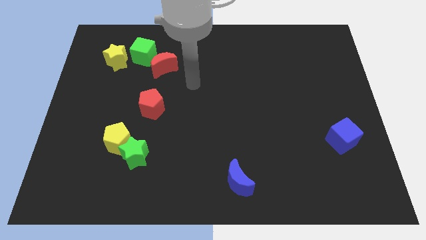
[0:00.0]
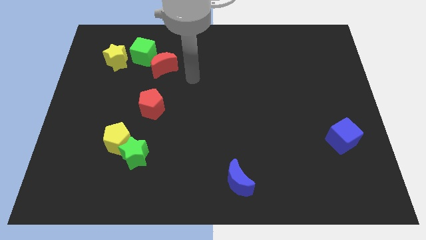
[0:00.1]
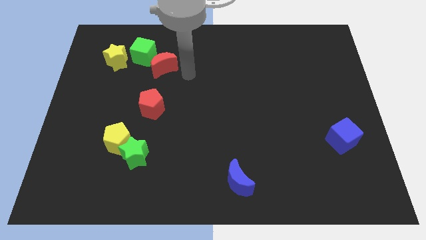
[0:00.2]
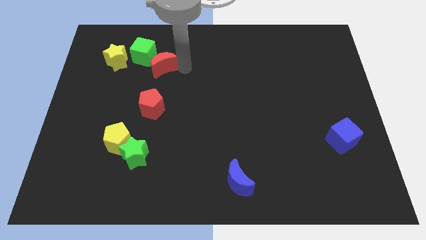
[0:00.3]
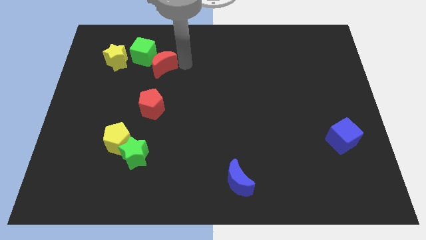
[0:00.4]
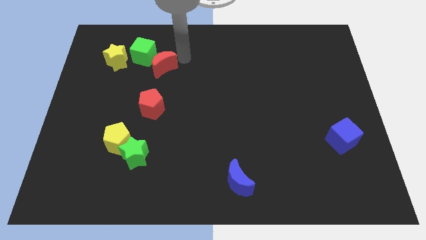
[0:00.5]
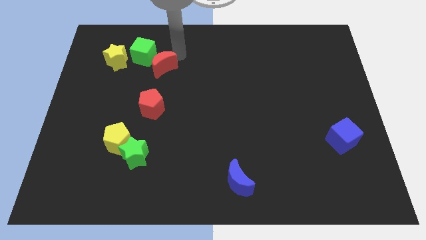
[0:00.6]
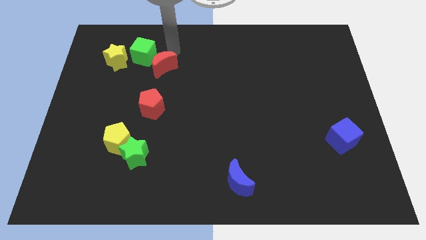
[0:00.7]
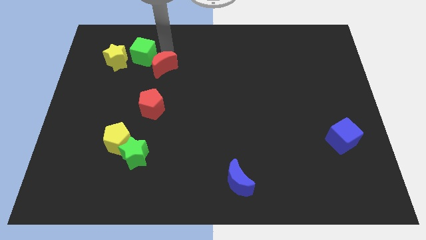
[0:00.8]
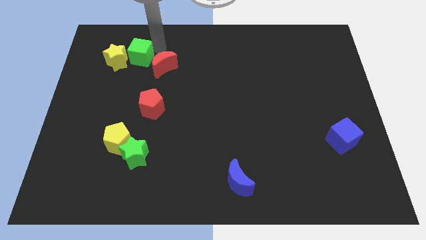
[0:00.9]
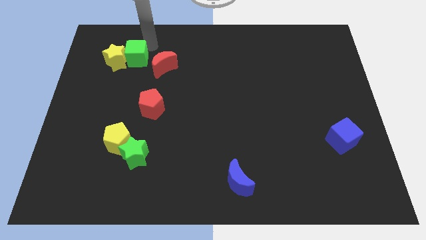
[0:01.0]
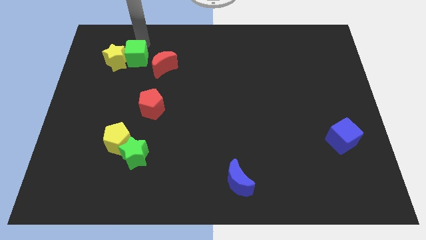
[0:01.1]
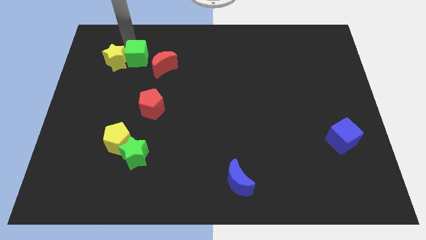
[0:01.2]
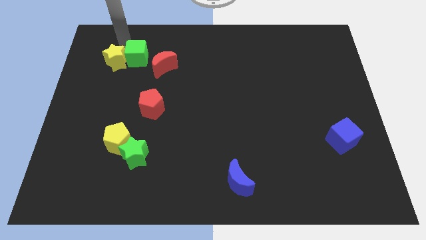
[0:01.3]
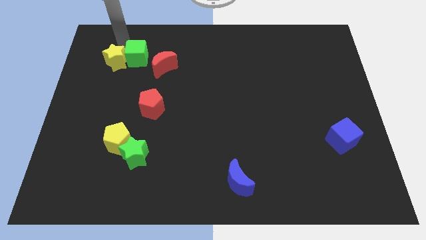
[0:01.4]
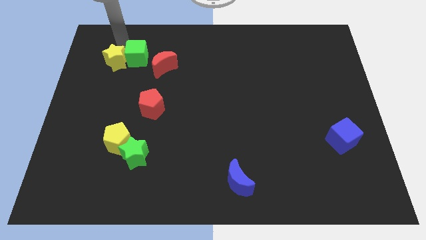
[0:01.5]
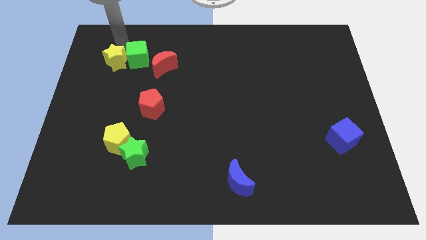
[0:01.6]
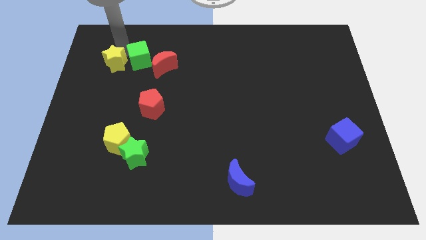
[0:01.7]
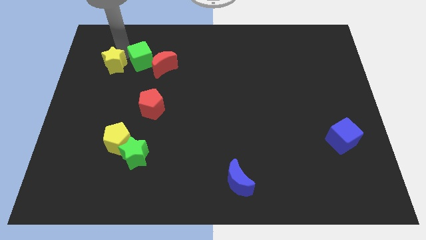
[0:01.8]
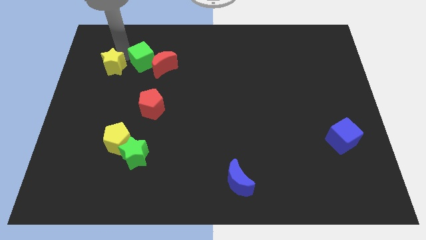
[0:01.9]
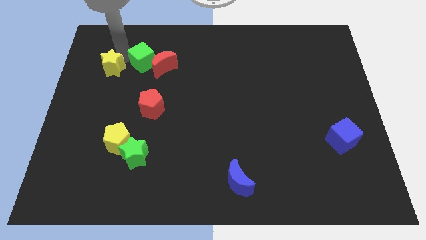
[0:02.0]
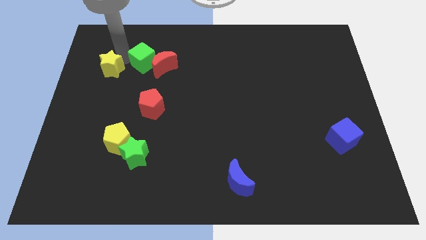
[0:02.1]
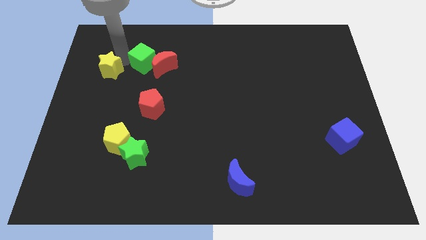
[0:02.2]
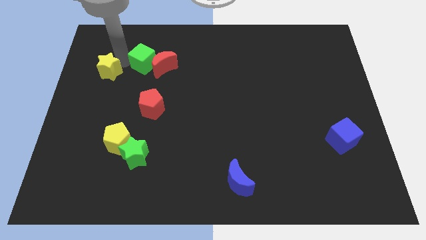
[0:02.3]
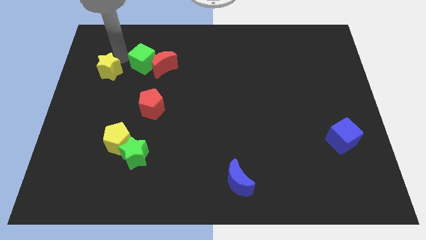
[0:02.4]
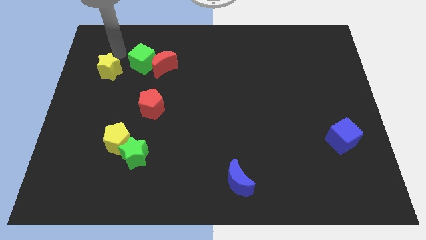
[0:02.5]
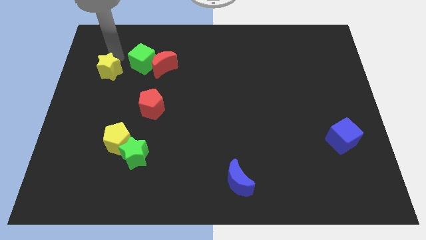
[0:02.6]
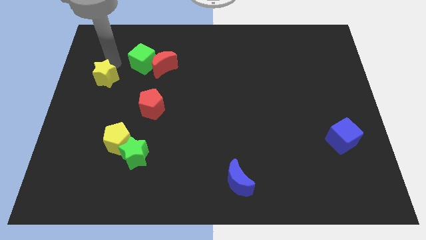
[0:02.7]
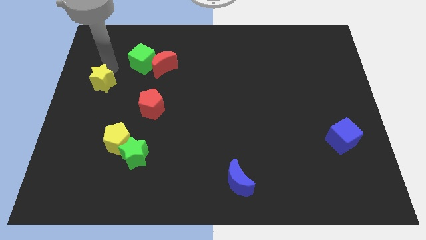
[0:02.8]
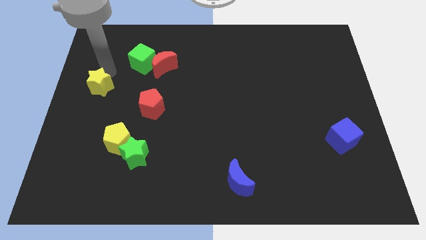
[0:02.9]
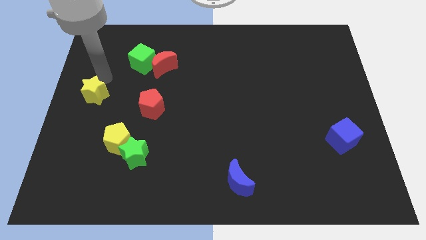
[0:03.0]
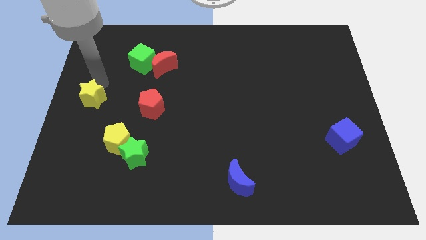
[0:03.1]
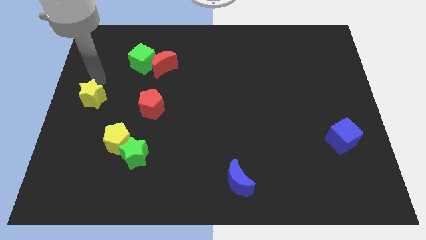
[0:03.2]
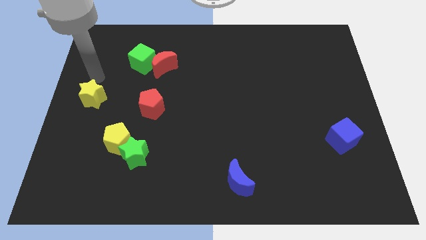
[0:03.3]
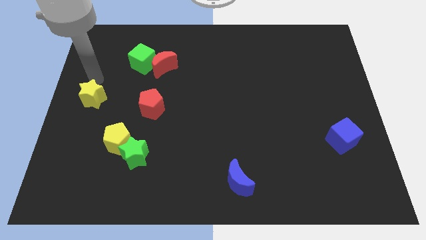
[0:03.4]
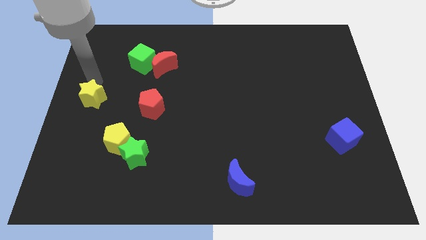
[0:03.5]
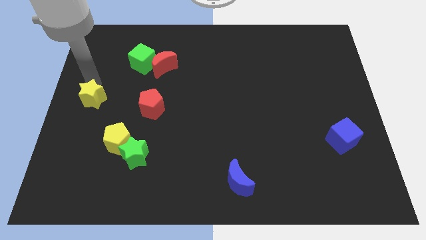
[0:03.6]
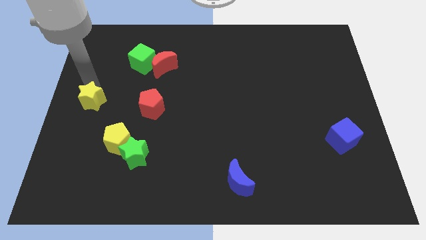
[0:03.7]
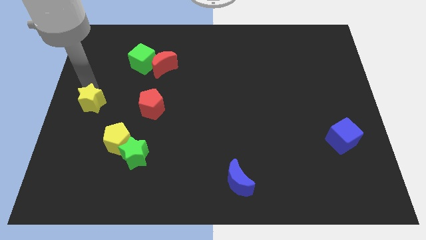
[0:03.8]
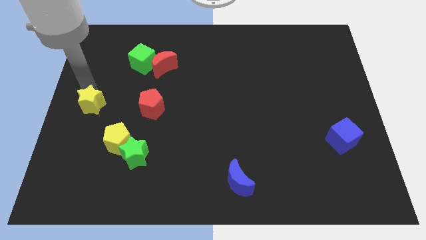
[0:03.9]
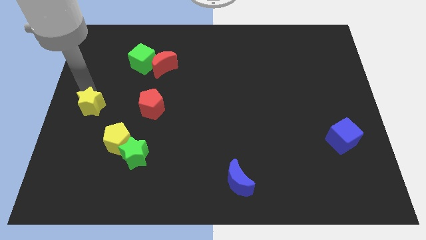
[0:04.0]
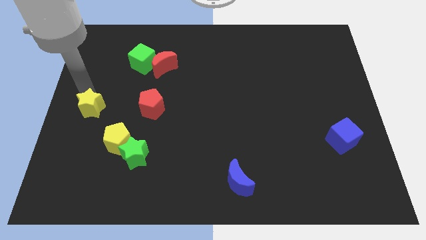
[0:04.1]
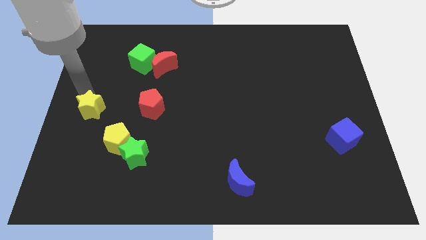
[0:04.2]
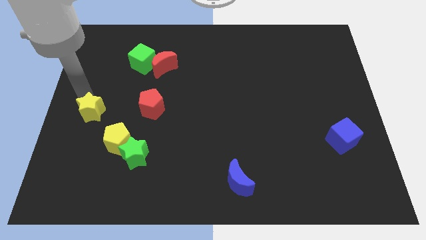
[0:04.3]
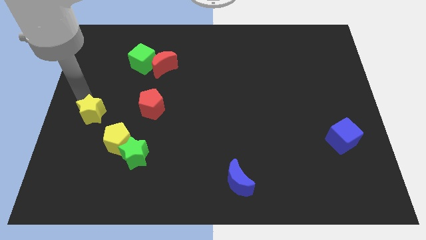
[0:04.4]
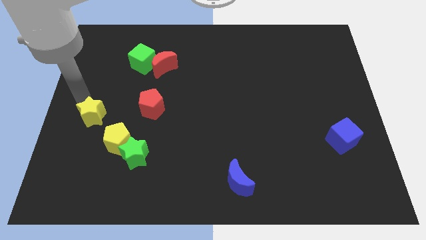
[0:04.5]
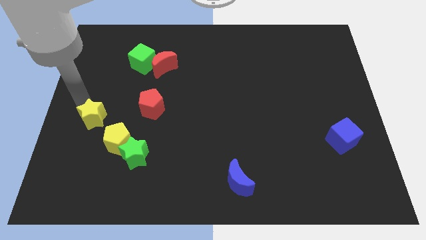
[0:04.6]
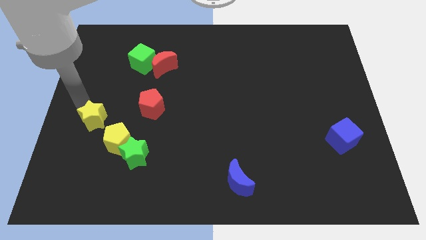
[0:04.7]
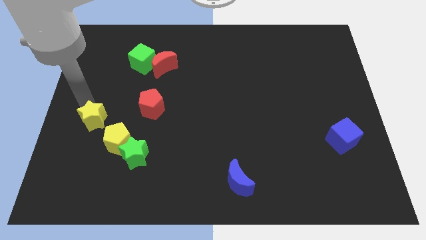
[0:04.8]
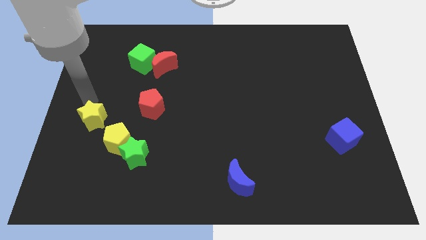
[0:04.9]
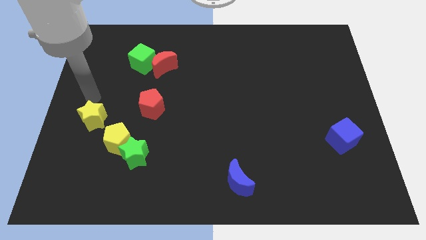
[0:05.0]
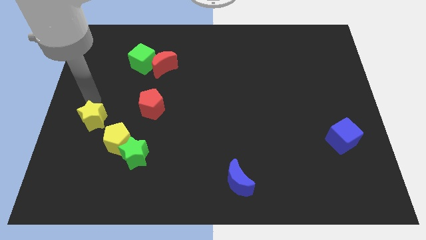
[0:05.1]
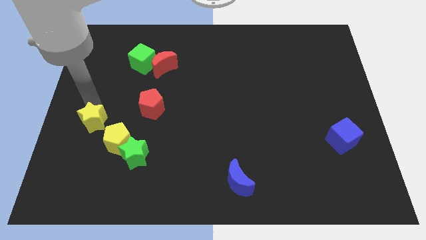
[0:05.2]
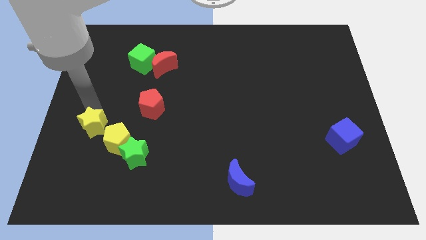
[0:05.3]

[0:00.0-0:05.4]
move the yellow star downwards

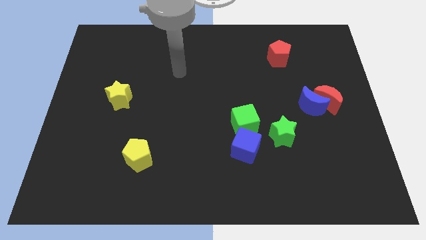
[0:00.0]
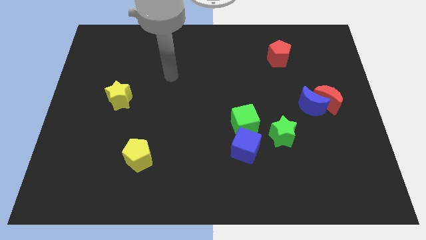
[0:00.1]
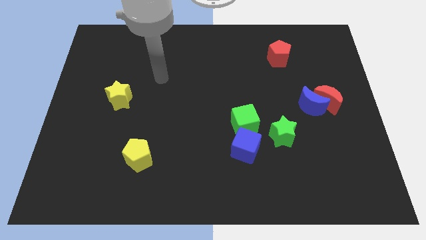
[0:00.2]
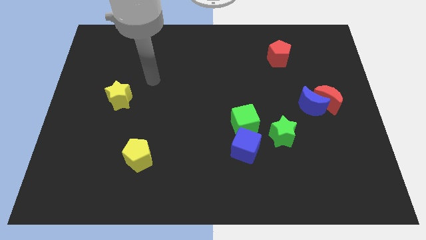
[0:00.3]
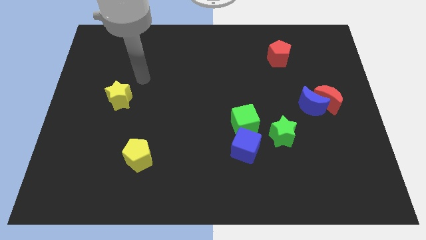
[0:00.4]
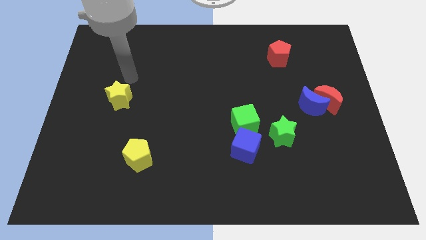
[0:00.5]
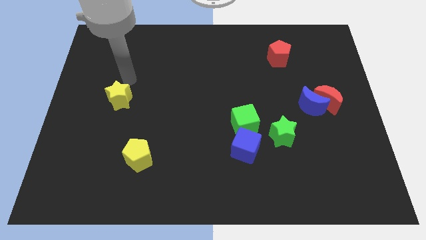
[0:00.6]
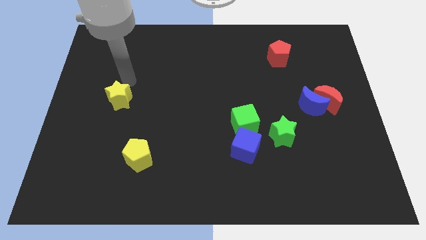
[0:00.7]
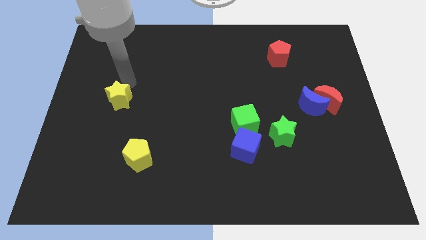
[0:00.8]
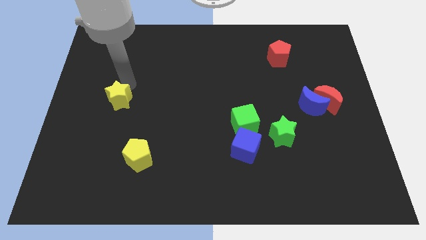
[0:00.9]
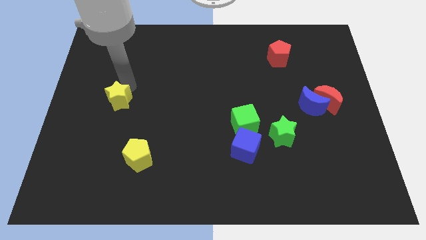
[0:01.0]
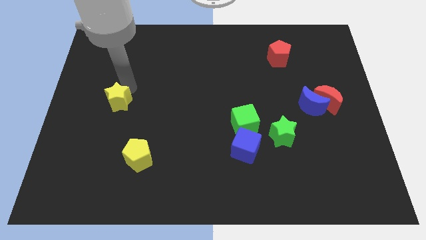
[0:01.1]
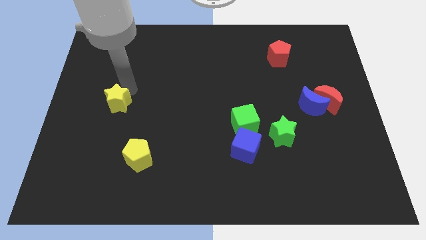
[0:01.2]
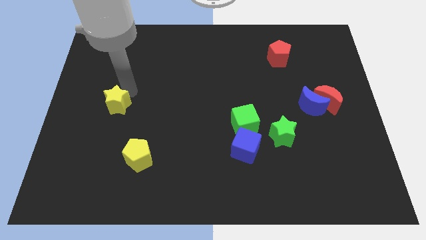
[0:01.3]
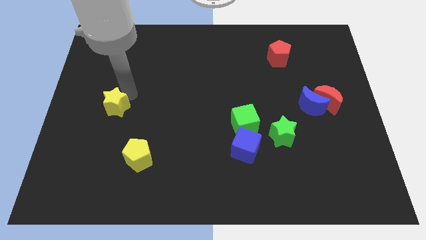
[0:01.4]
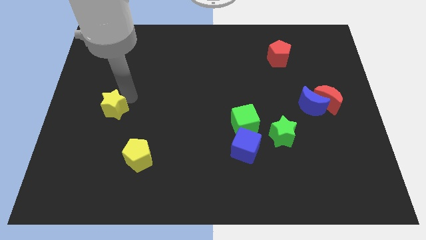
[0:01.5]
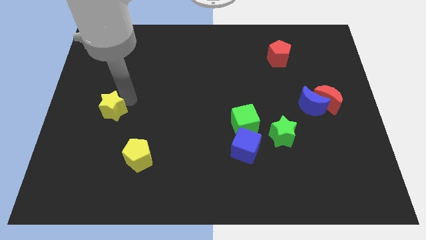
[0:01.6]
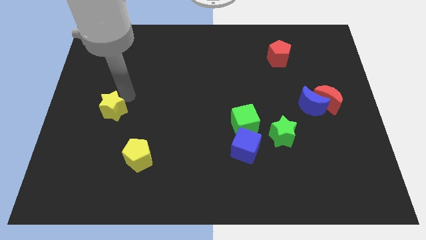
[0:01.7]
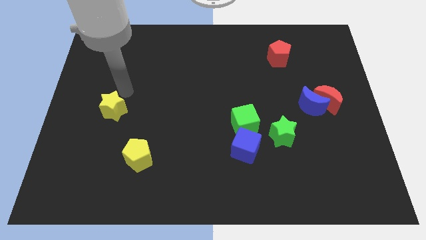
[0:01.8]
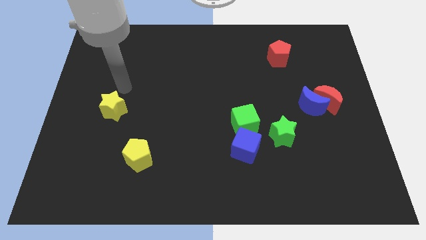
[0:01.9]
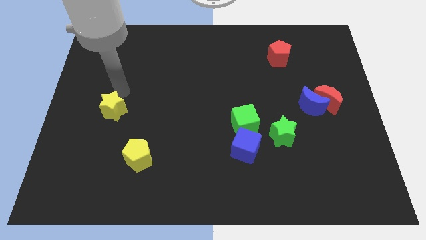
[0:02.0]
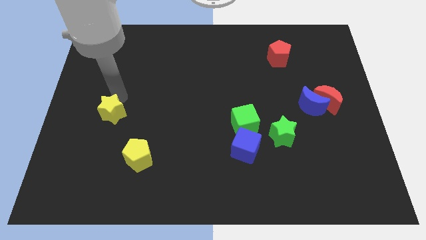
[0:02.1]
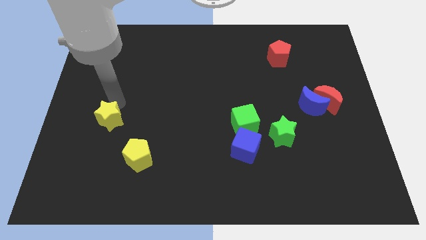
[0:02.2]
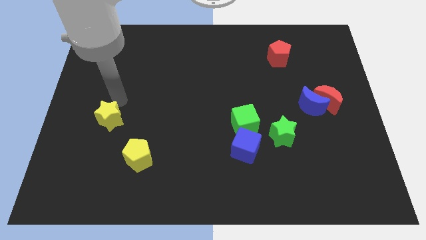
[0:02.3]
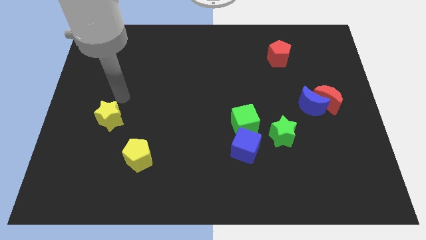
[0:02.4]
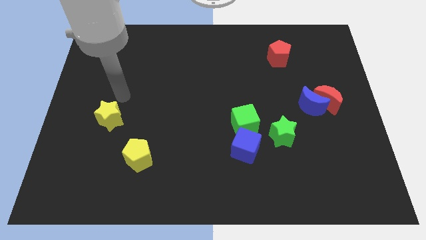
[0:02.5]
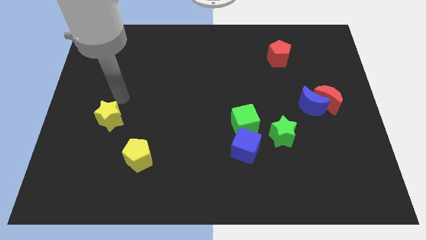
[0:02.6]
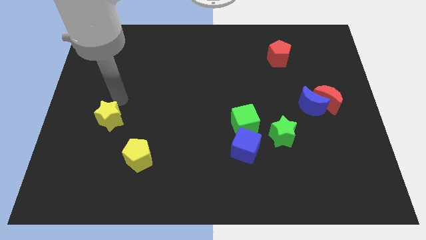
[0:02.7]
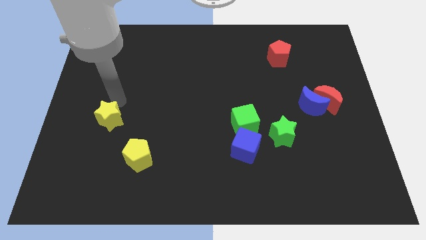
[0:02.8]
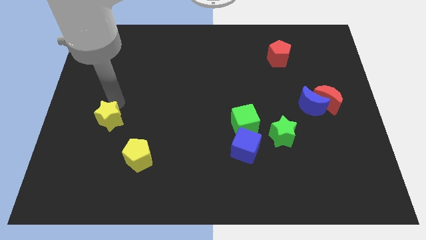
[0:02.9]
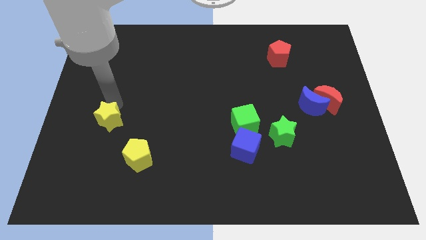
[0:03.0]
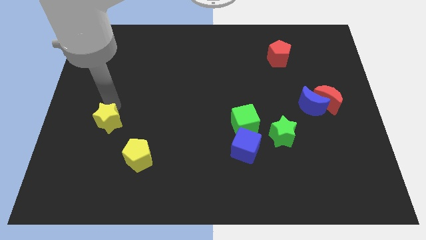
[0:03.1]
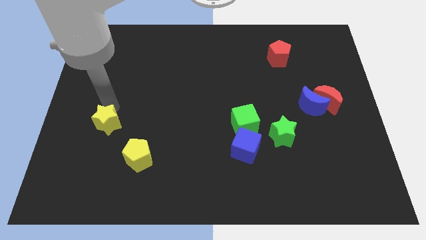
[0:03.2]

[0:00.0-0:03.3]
move the yellow star down a little bit
